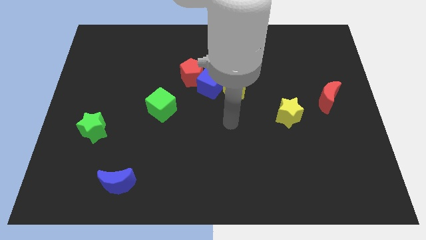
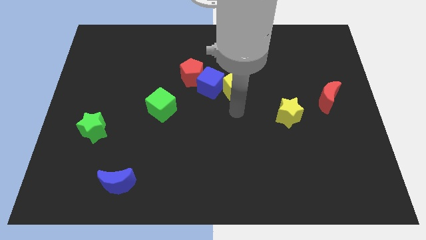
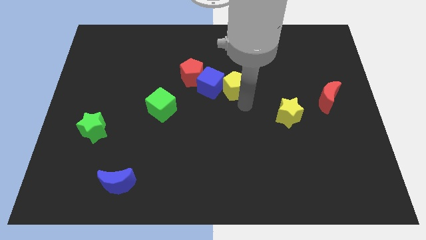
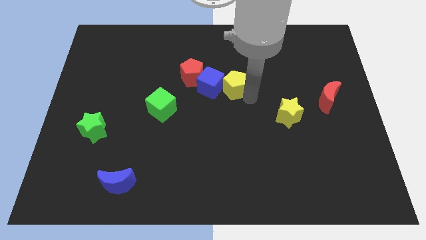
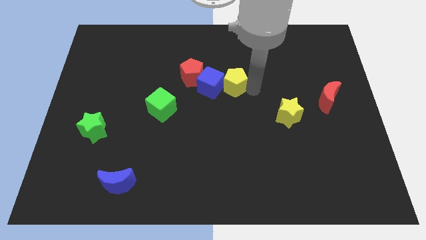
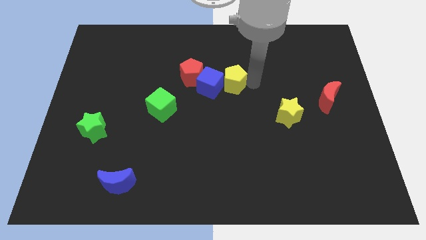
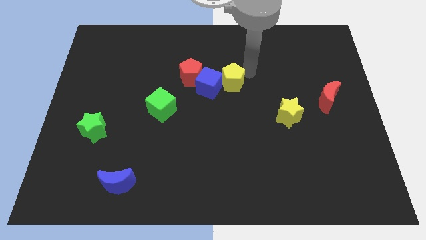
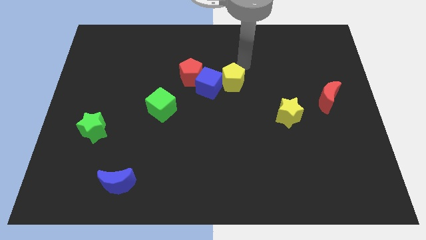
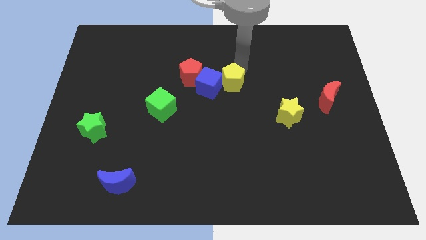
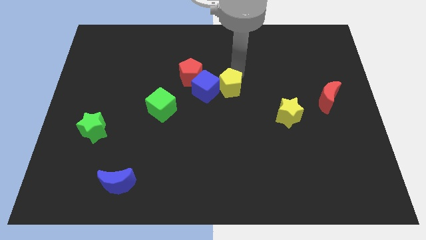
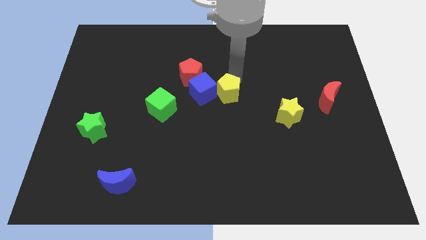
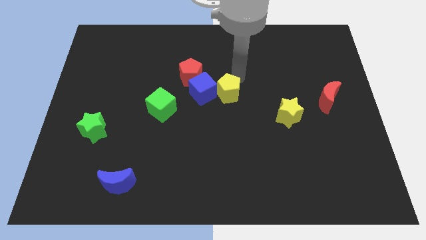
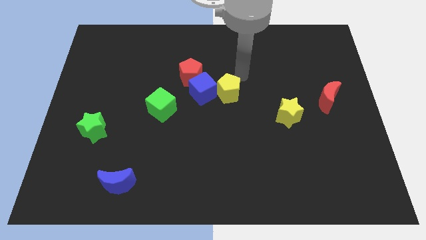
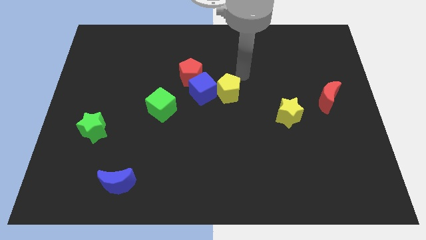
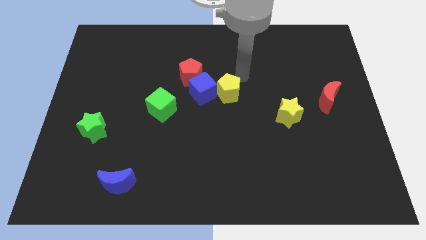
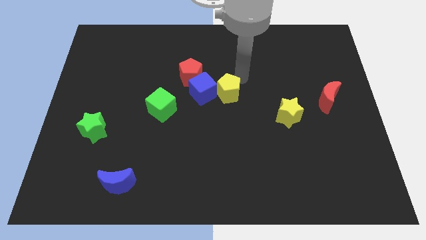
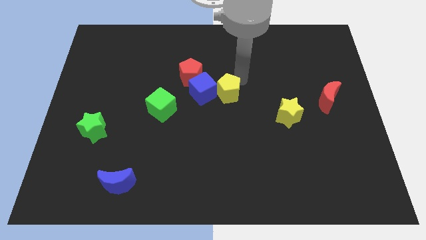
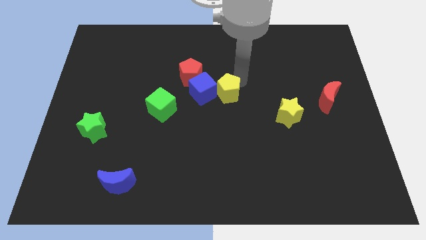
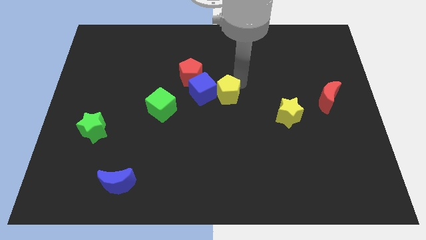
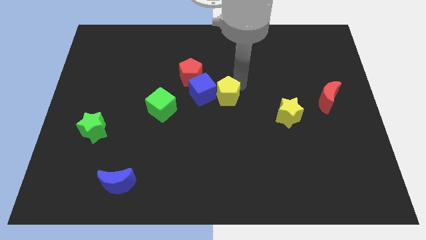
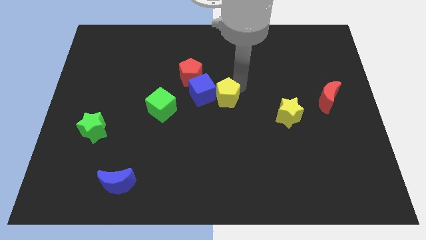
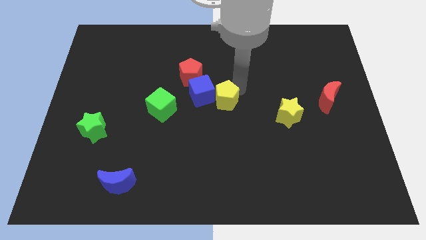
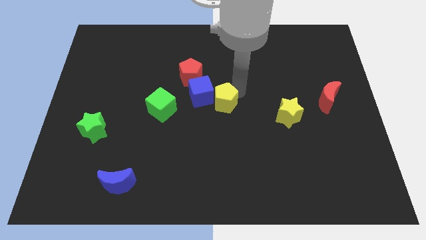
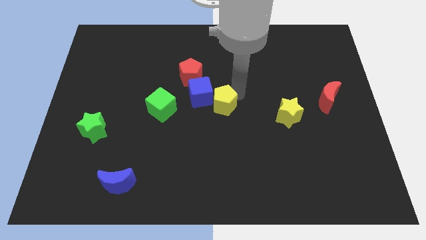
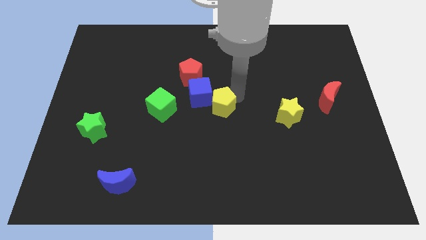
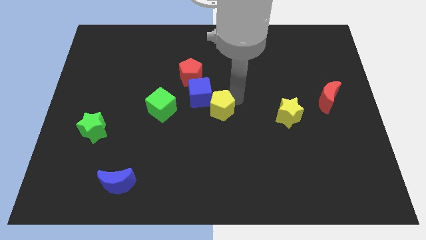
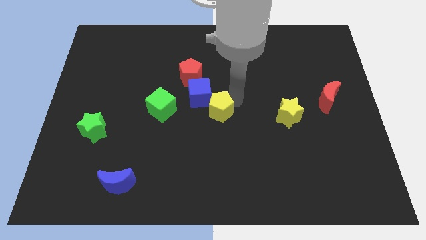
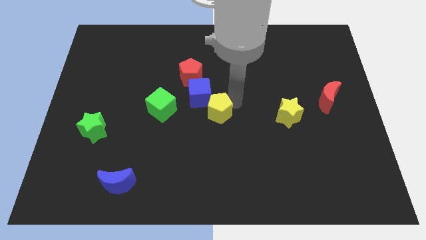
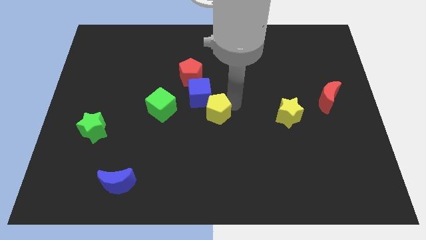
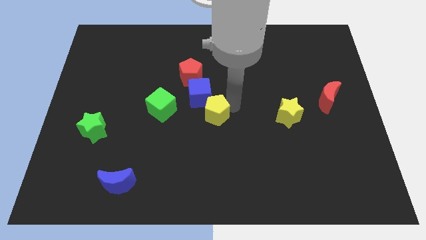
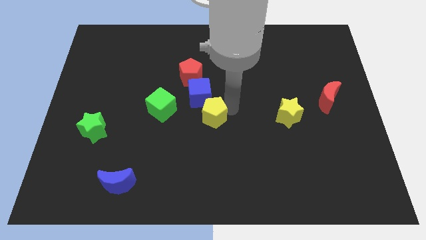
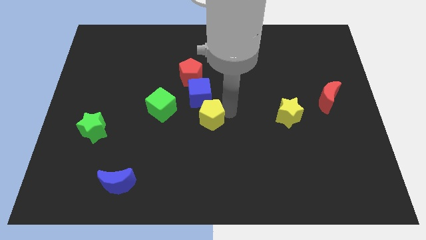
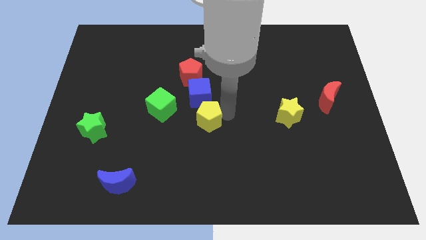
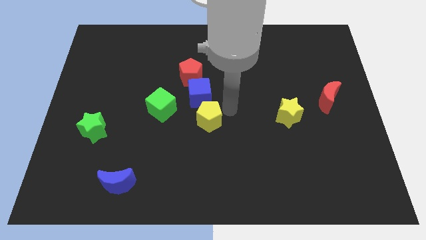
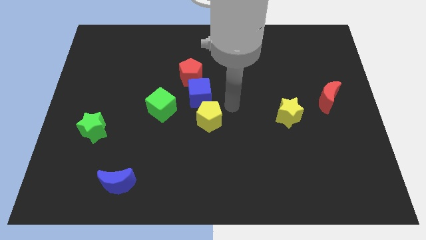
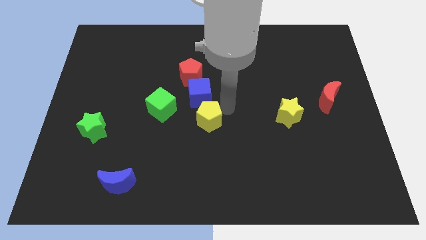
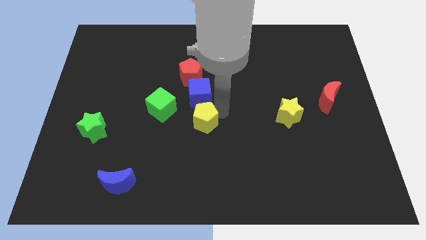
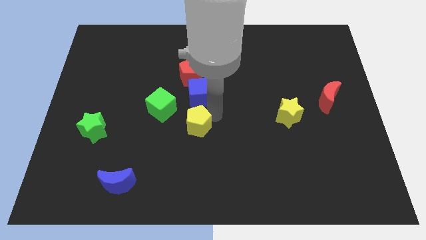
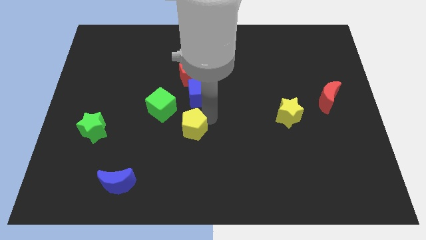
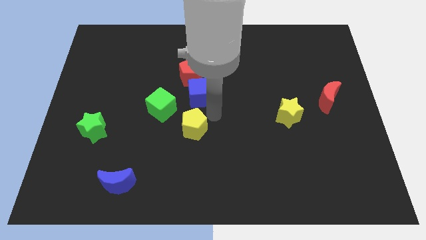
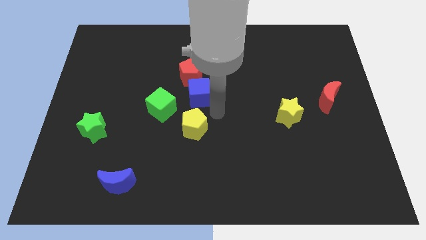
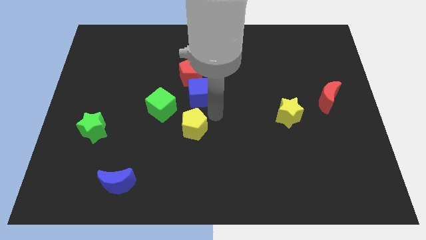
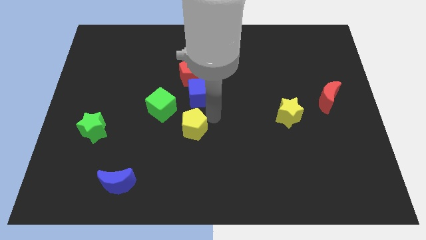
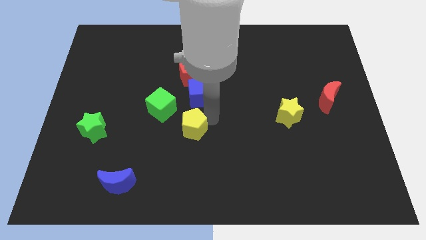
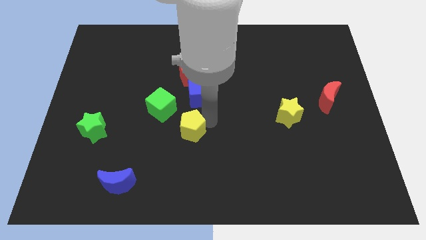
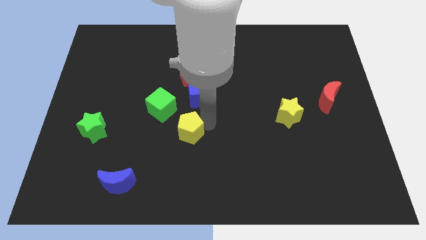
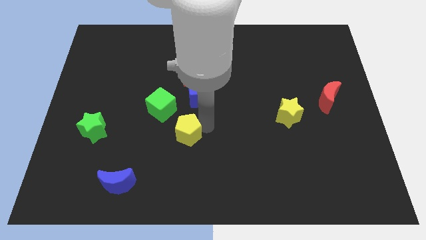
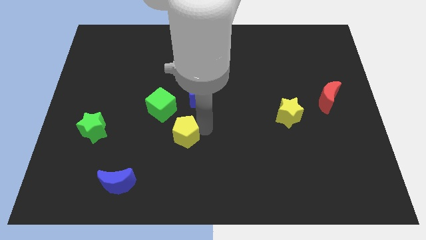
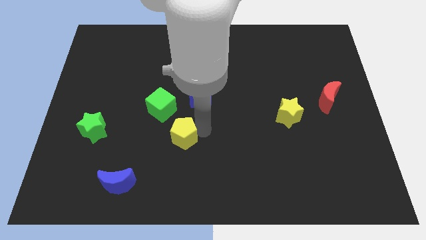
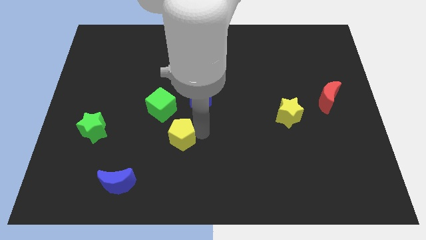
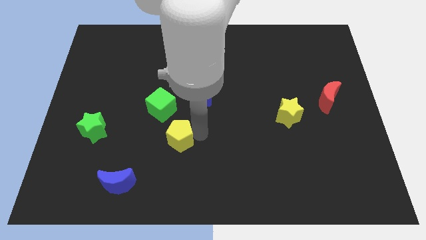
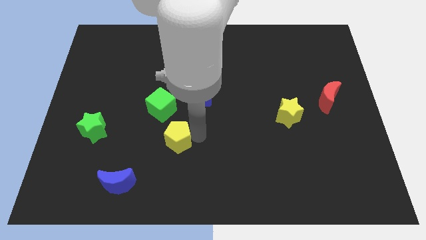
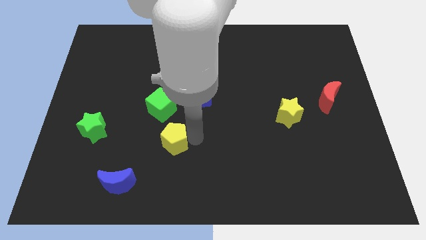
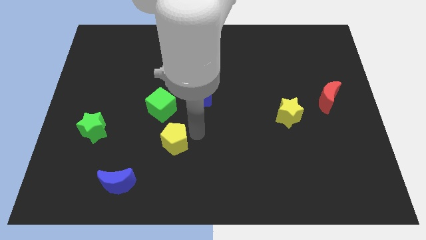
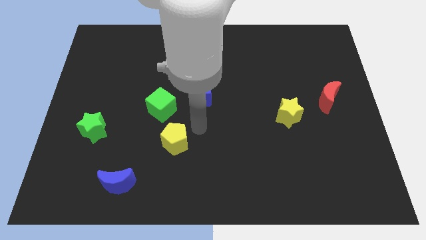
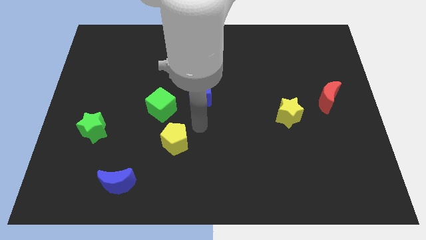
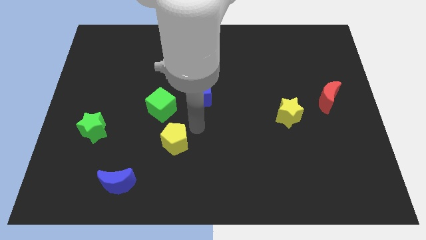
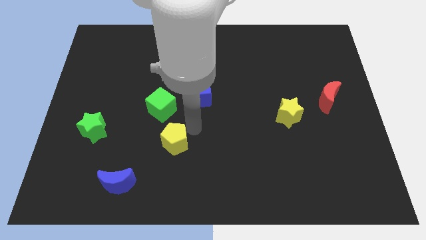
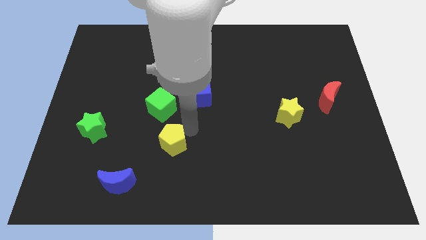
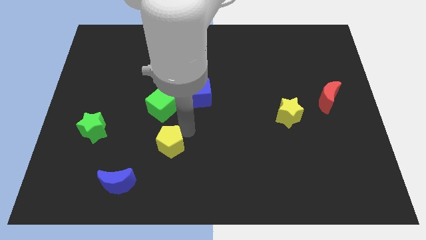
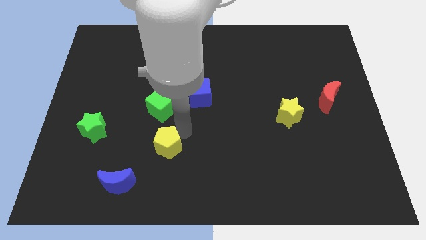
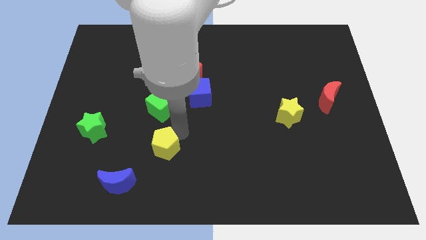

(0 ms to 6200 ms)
slide the yellow pentagon to the top right of the blue moon

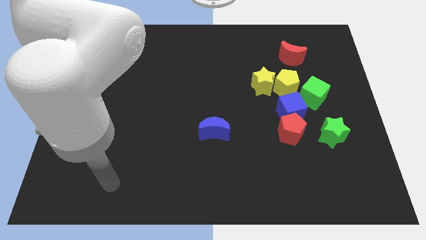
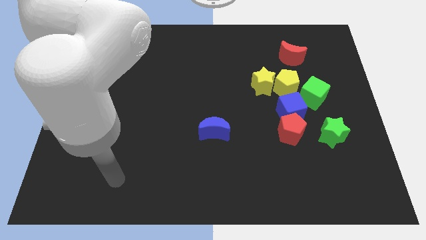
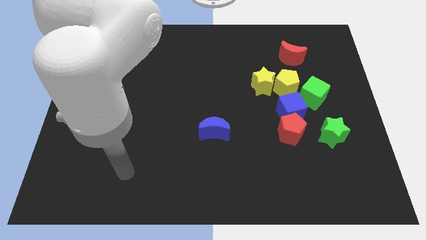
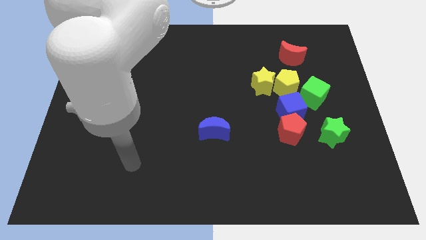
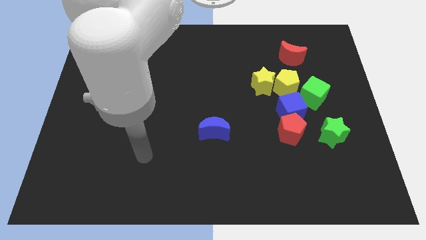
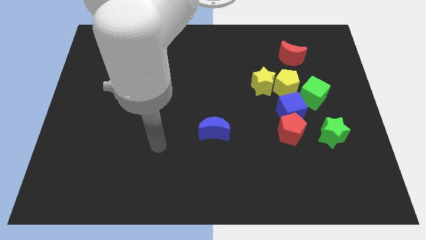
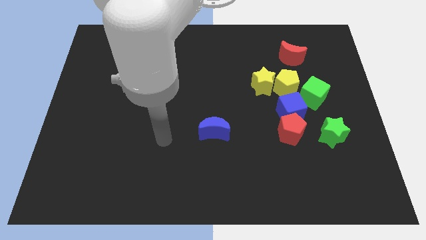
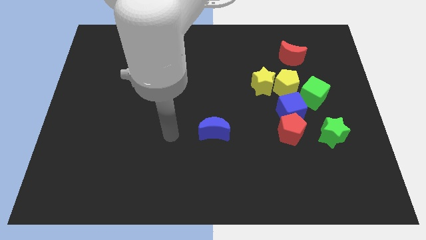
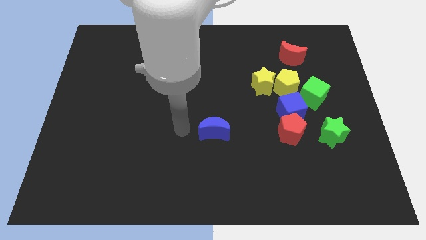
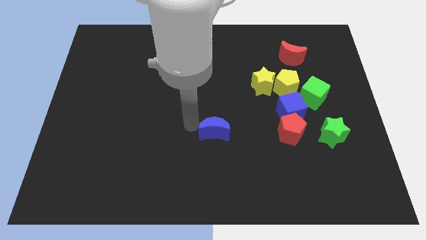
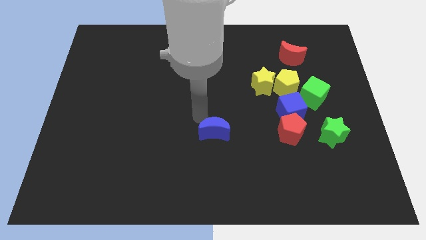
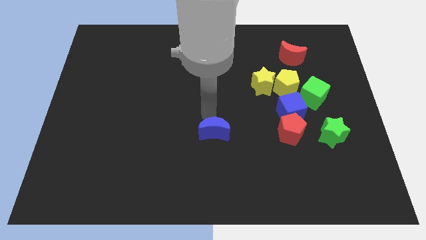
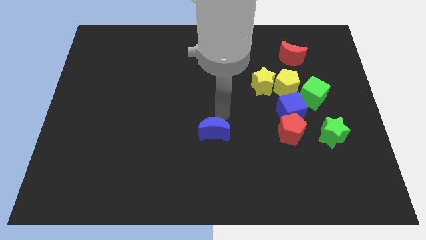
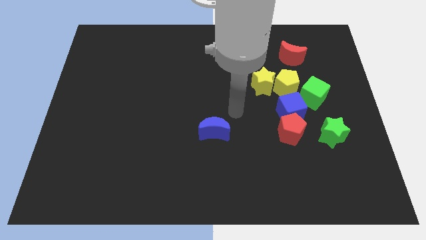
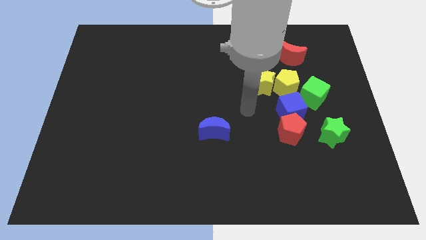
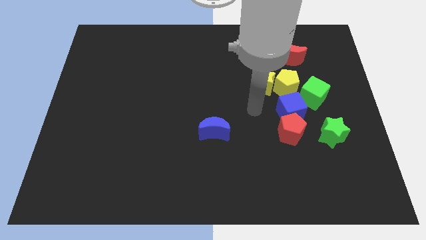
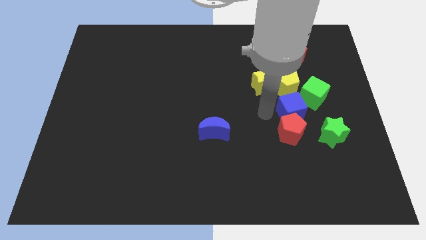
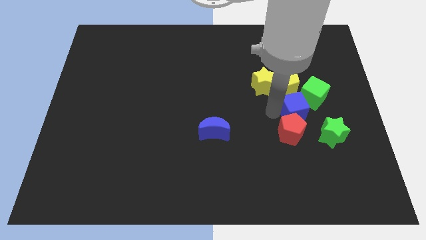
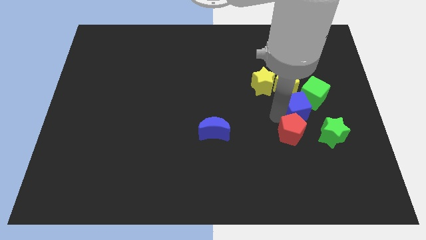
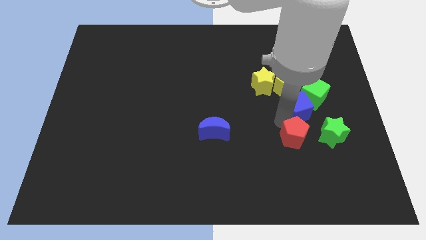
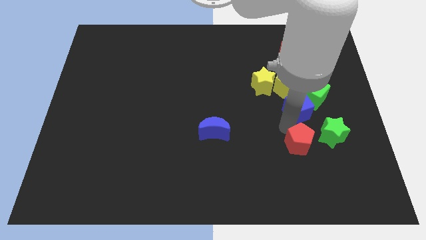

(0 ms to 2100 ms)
slide the red pentagon to the bottom left side of the green star
